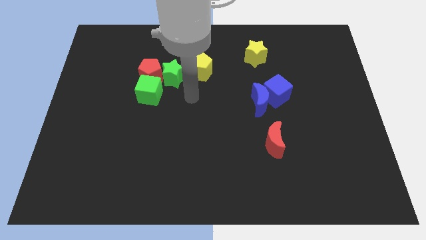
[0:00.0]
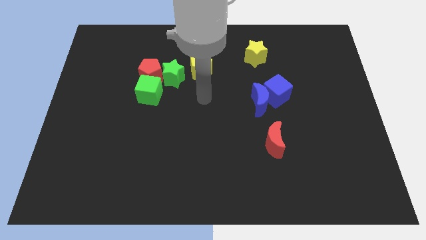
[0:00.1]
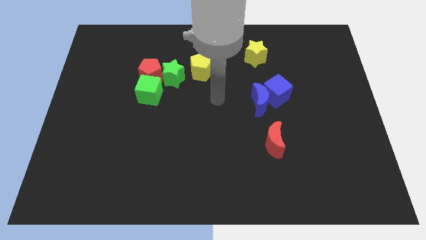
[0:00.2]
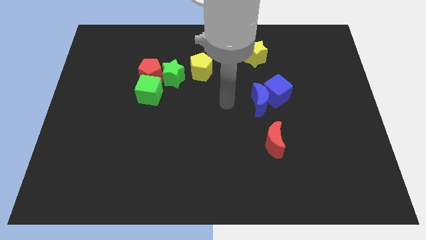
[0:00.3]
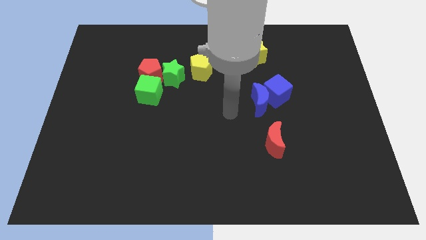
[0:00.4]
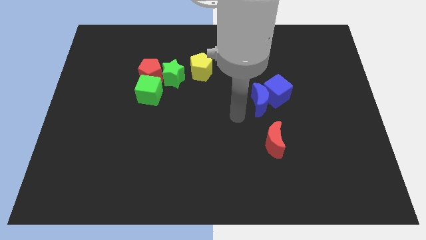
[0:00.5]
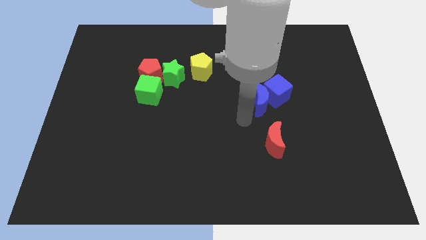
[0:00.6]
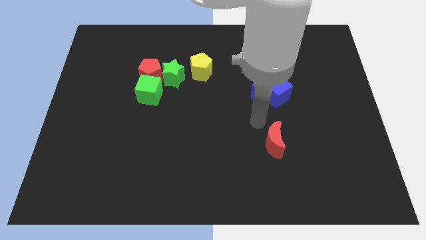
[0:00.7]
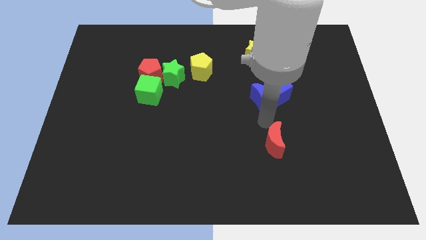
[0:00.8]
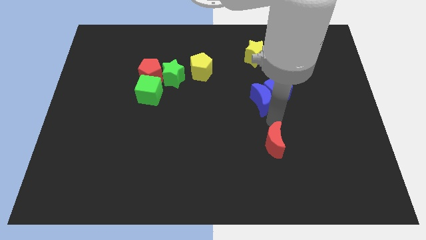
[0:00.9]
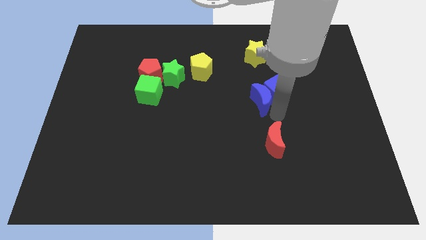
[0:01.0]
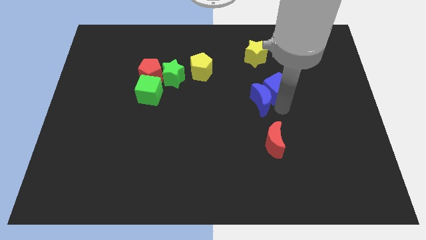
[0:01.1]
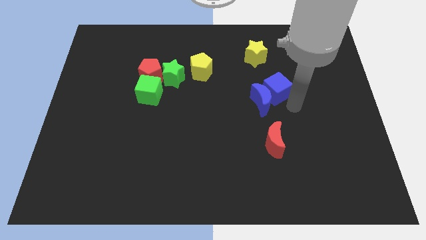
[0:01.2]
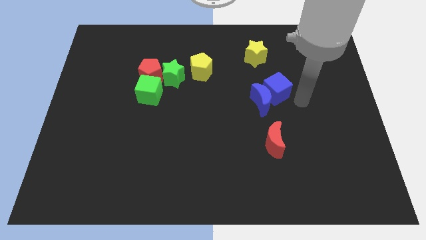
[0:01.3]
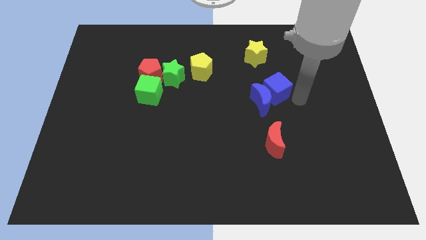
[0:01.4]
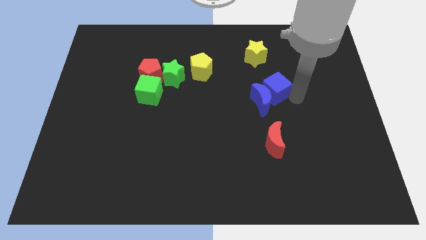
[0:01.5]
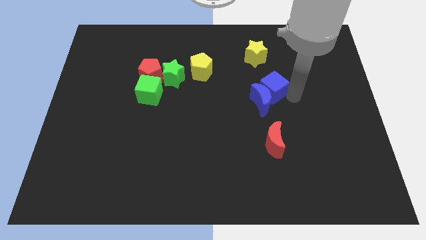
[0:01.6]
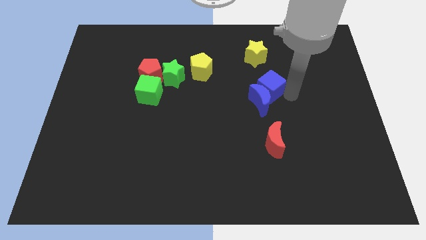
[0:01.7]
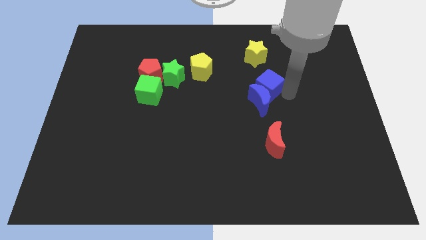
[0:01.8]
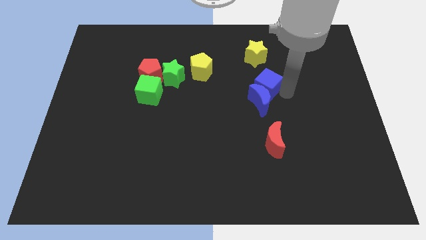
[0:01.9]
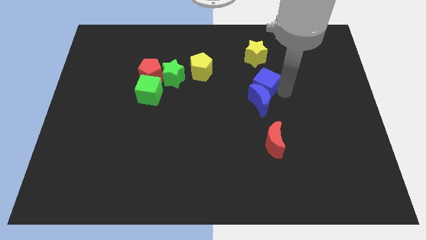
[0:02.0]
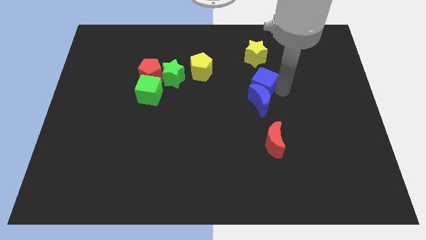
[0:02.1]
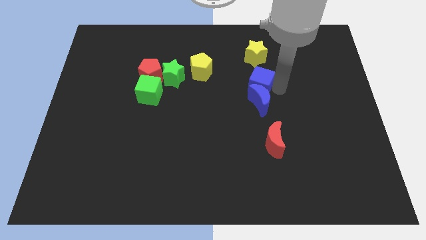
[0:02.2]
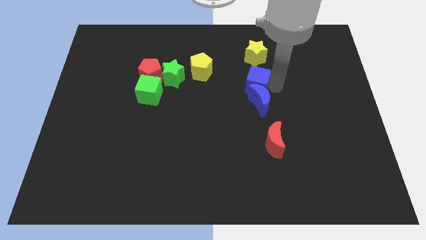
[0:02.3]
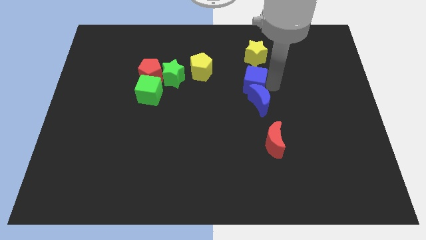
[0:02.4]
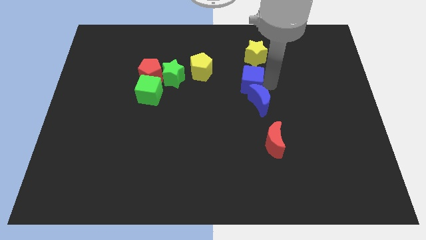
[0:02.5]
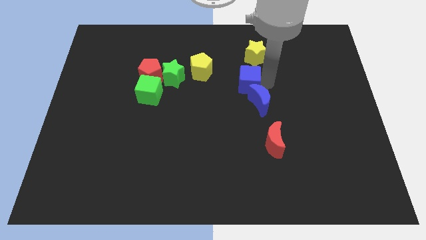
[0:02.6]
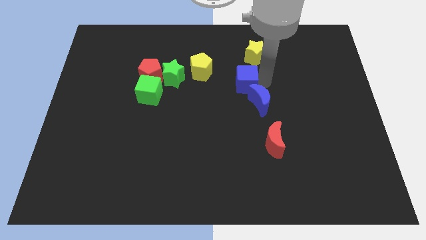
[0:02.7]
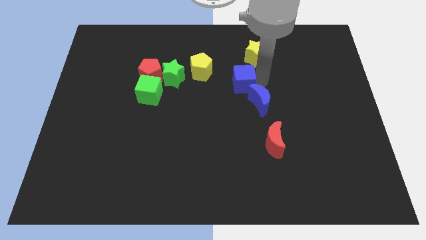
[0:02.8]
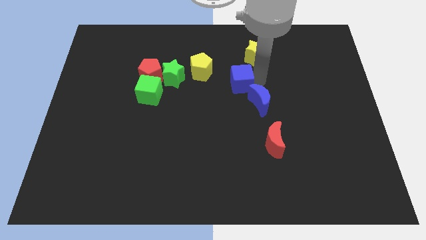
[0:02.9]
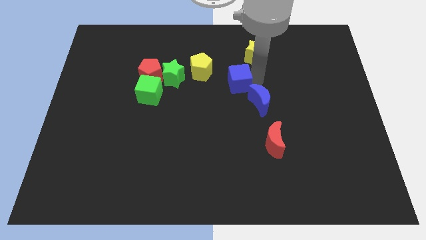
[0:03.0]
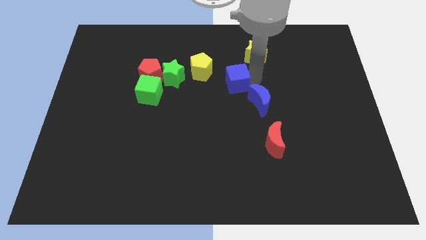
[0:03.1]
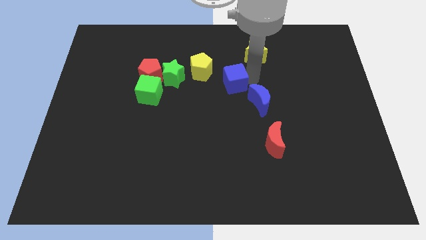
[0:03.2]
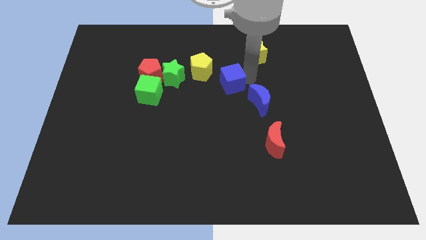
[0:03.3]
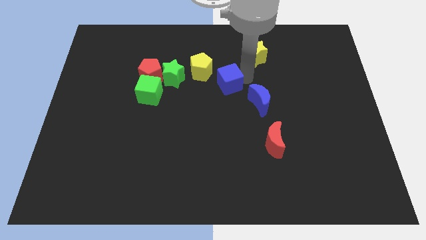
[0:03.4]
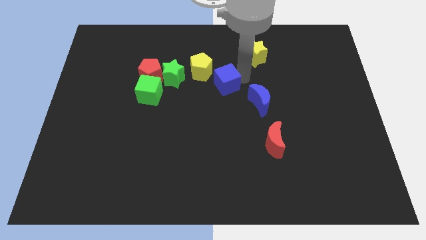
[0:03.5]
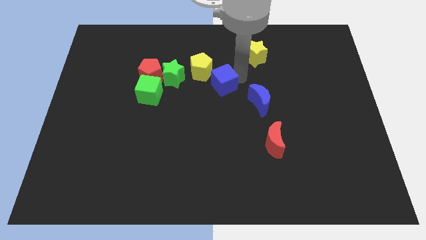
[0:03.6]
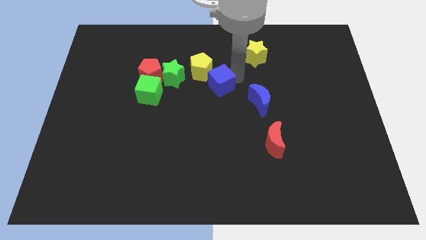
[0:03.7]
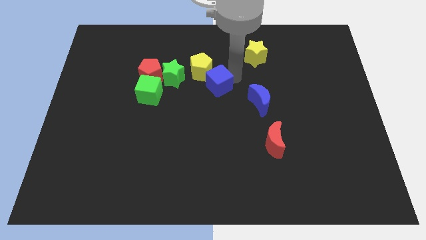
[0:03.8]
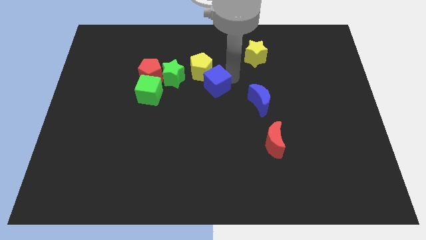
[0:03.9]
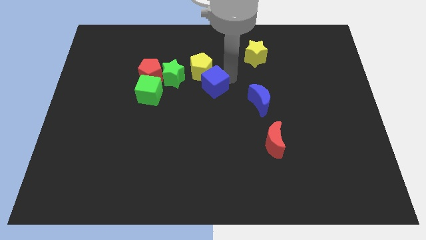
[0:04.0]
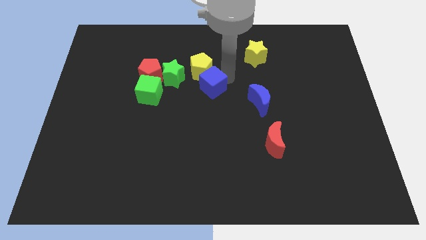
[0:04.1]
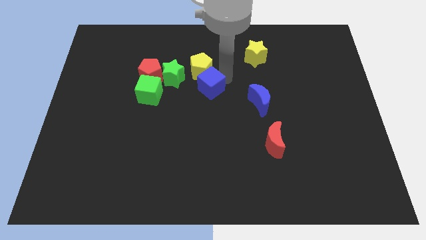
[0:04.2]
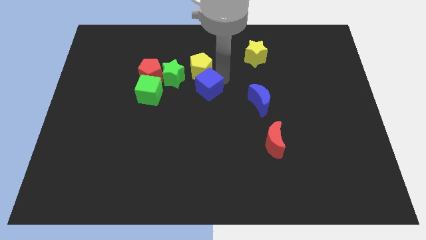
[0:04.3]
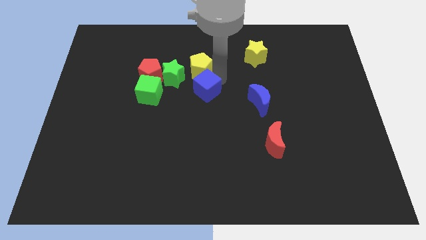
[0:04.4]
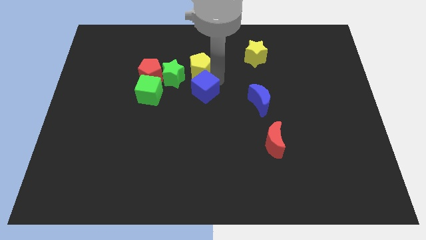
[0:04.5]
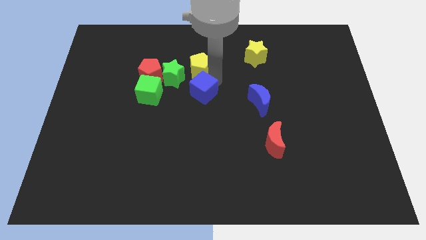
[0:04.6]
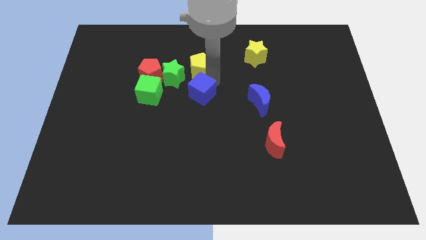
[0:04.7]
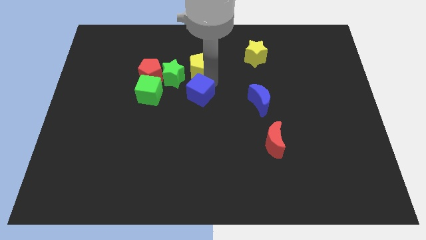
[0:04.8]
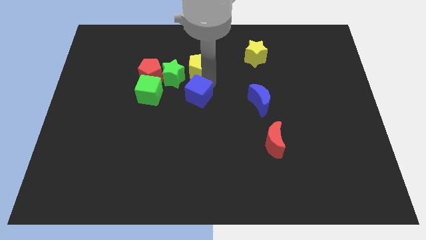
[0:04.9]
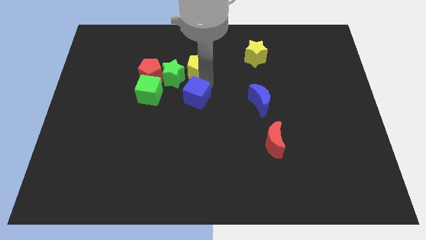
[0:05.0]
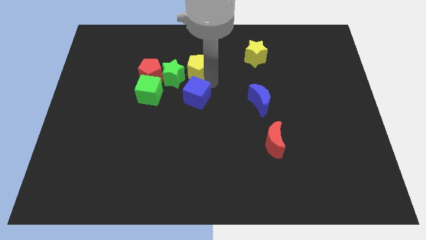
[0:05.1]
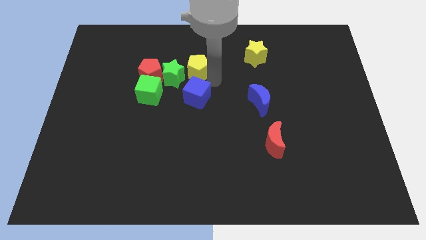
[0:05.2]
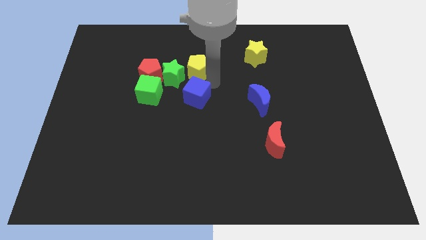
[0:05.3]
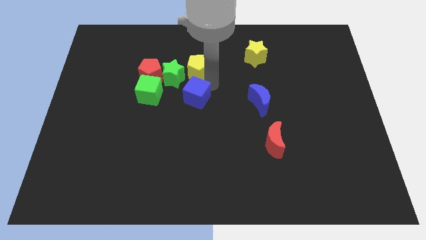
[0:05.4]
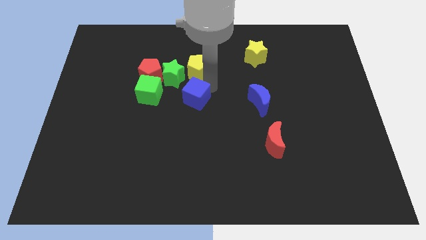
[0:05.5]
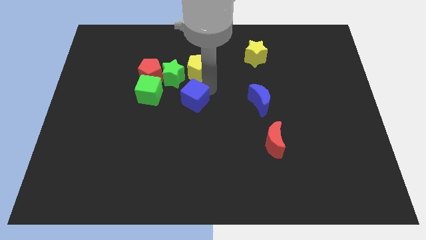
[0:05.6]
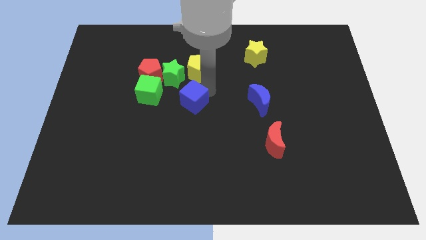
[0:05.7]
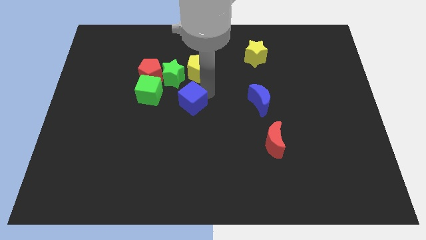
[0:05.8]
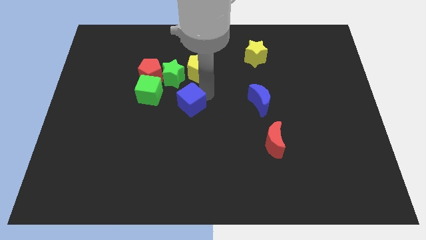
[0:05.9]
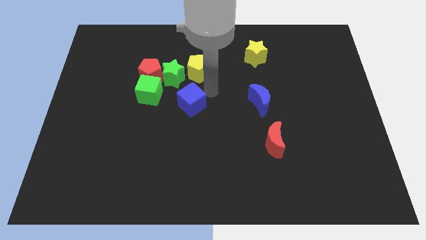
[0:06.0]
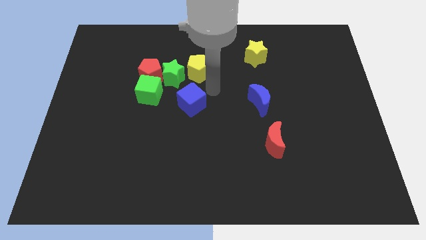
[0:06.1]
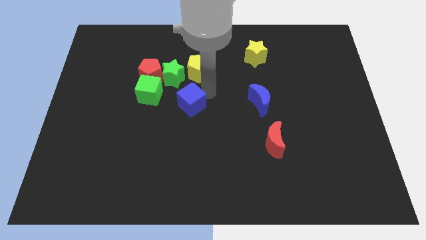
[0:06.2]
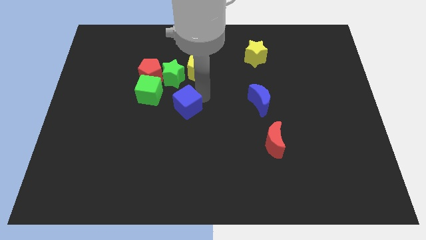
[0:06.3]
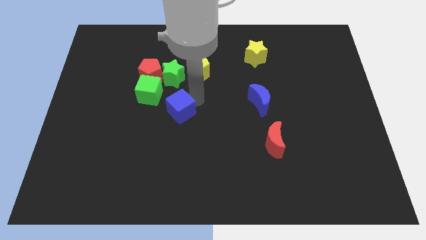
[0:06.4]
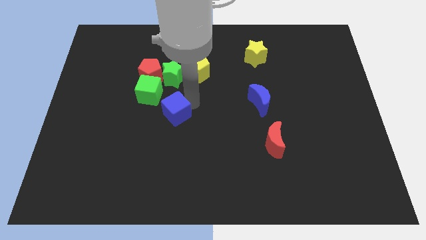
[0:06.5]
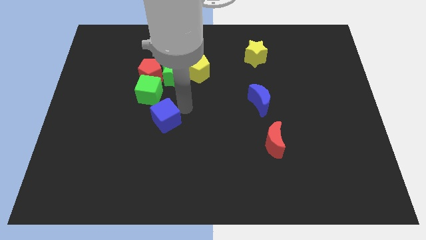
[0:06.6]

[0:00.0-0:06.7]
push the blue cube to the bottom of the green cube

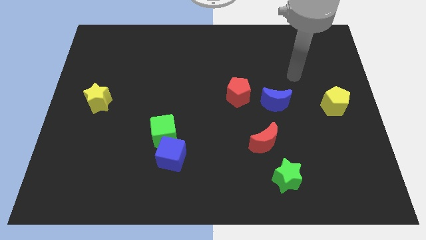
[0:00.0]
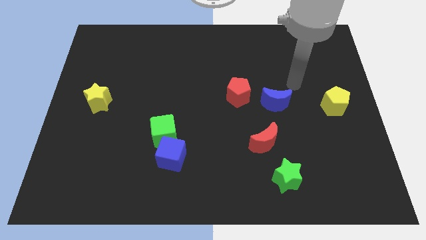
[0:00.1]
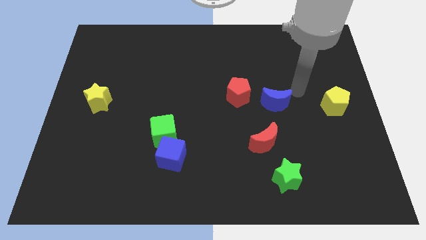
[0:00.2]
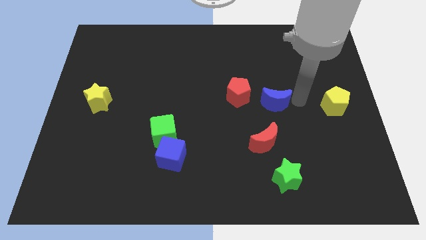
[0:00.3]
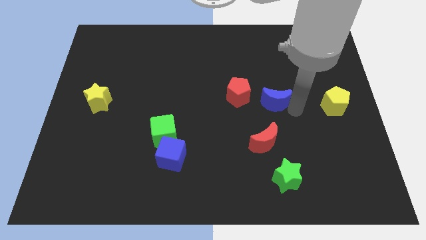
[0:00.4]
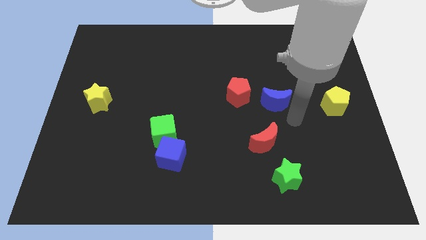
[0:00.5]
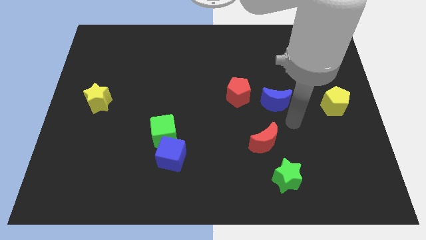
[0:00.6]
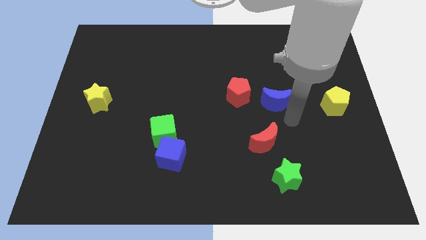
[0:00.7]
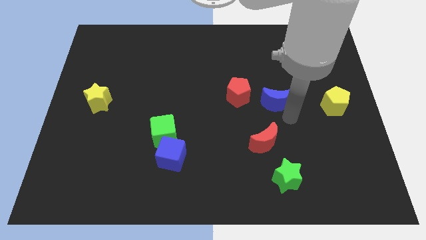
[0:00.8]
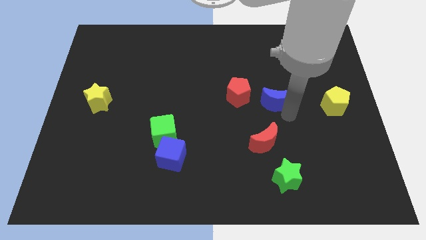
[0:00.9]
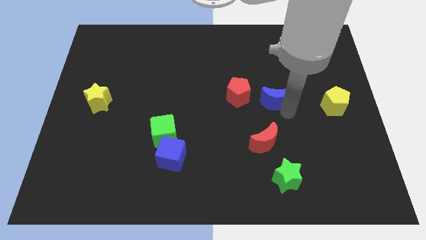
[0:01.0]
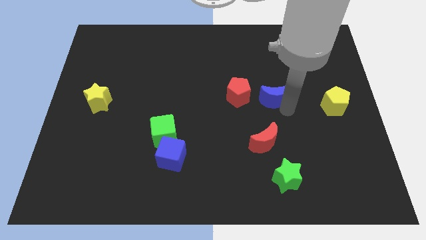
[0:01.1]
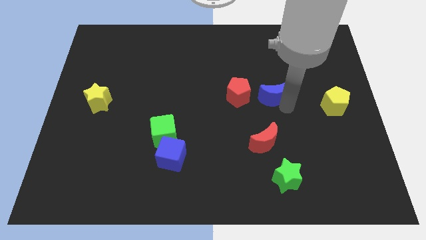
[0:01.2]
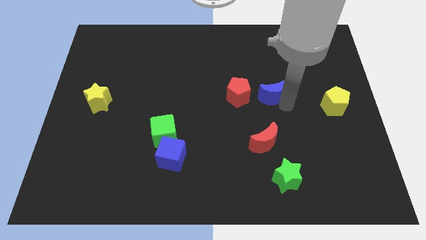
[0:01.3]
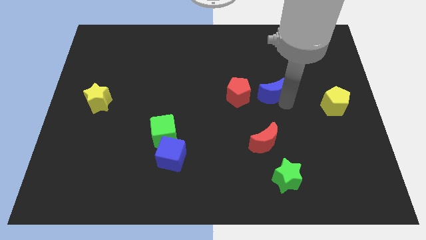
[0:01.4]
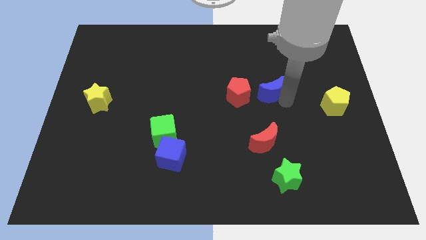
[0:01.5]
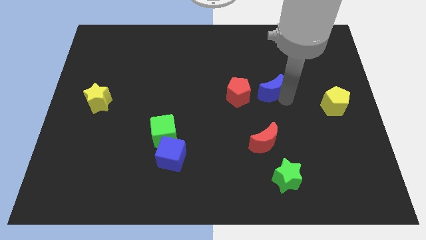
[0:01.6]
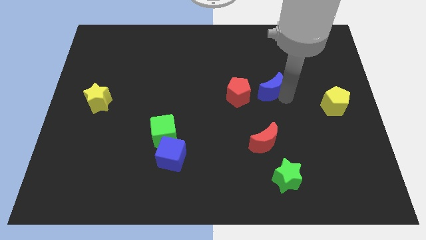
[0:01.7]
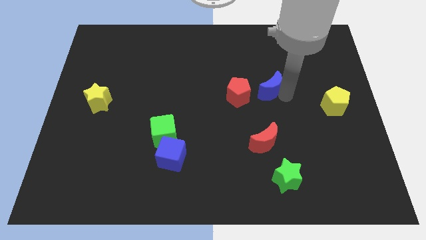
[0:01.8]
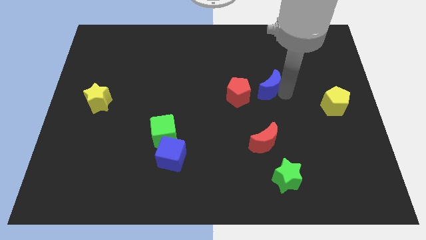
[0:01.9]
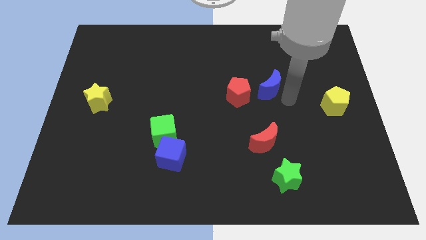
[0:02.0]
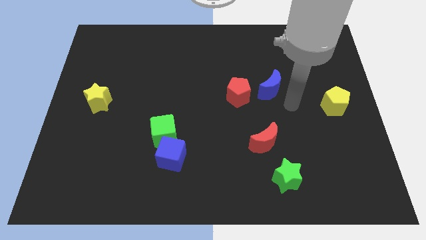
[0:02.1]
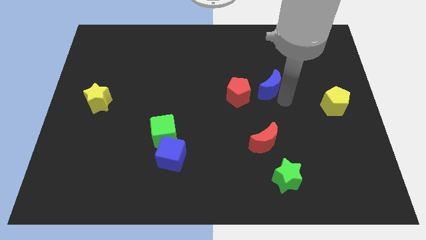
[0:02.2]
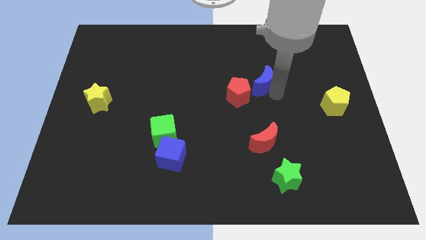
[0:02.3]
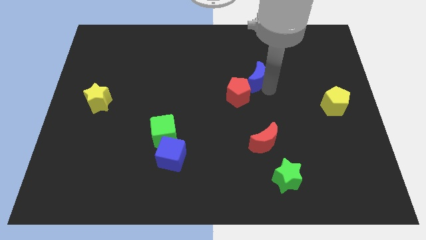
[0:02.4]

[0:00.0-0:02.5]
push the blue moon to the top side of the red pentagon
